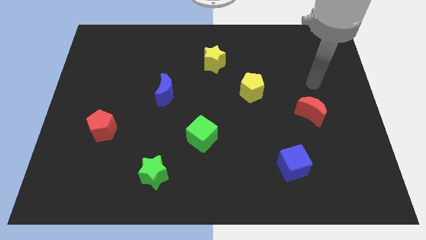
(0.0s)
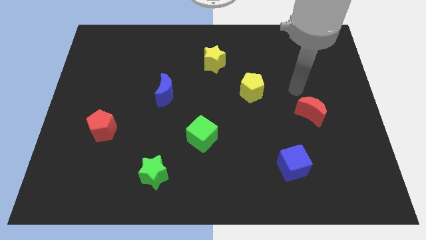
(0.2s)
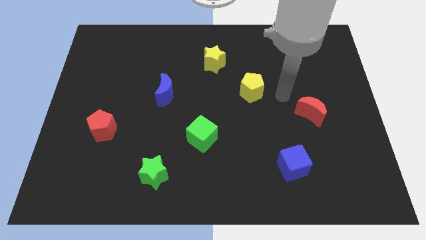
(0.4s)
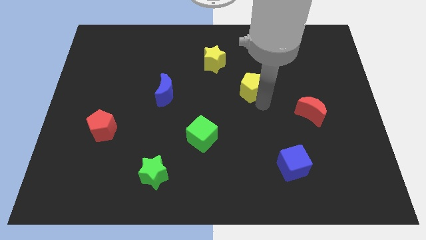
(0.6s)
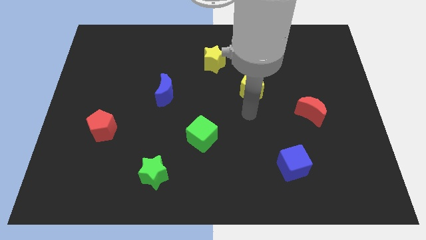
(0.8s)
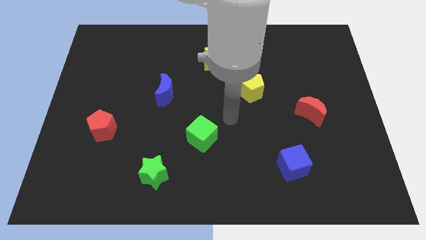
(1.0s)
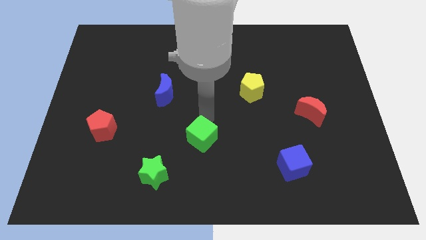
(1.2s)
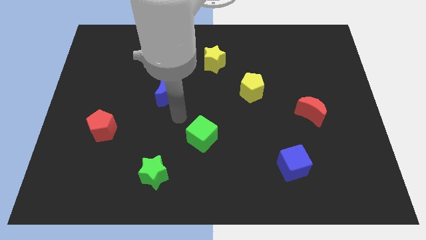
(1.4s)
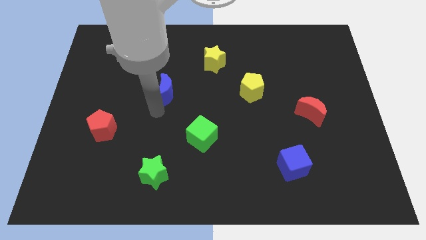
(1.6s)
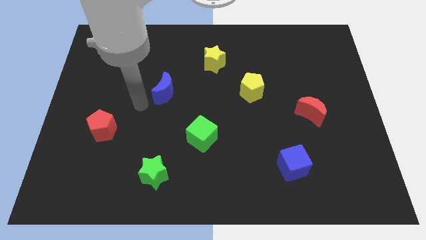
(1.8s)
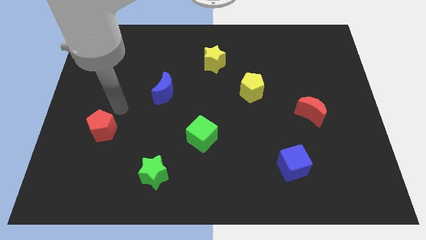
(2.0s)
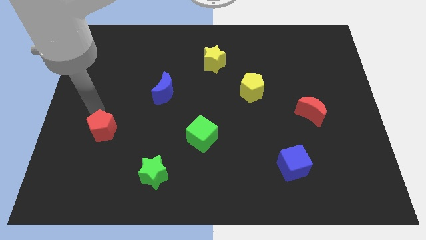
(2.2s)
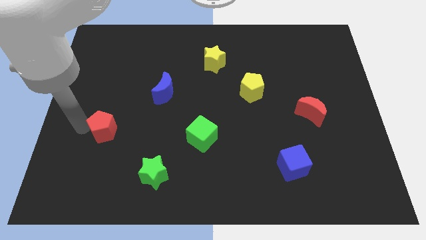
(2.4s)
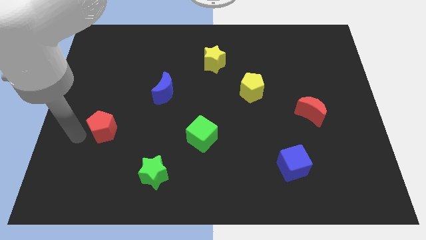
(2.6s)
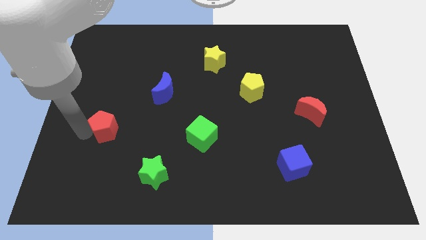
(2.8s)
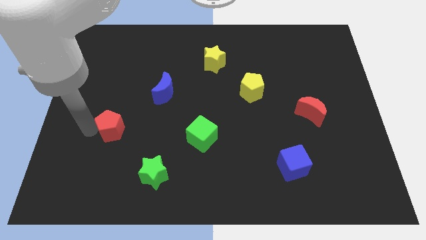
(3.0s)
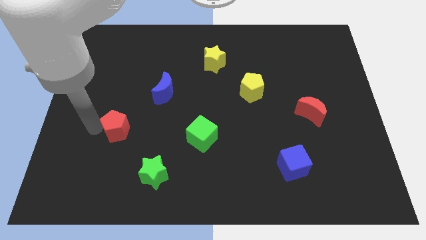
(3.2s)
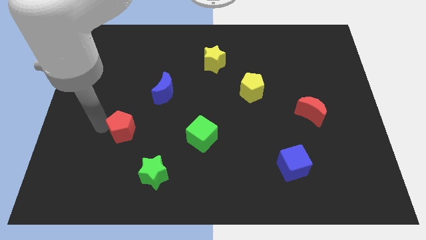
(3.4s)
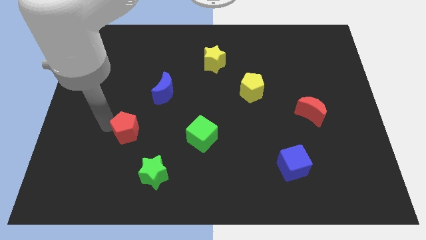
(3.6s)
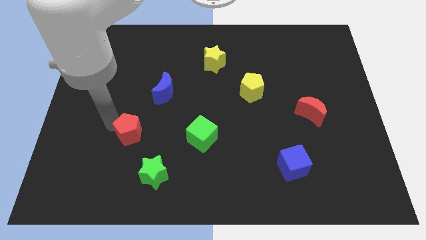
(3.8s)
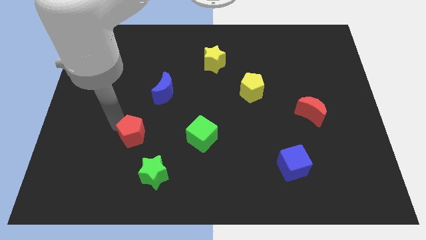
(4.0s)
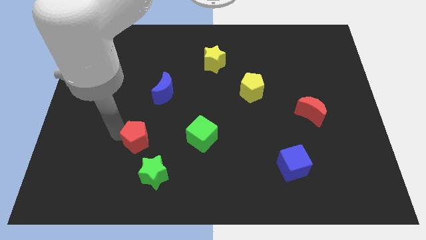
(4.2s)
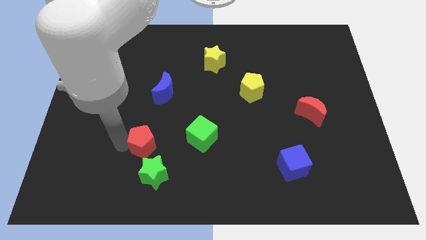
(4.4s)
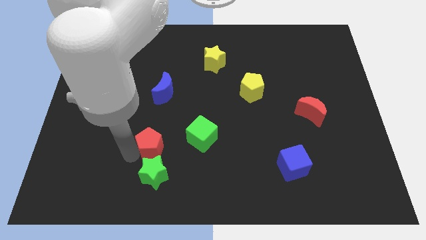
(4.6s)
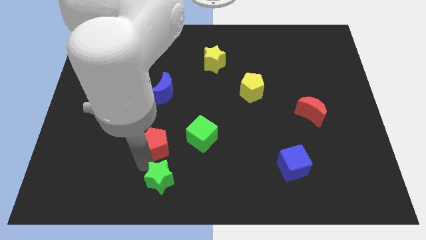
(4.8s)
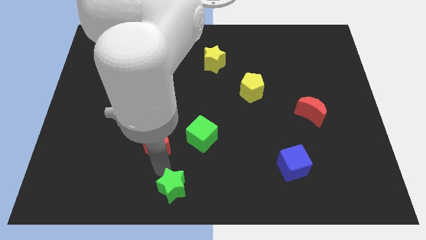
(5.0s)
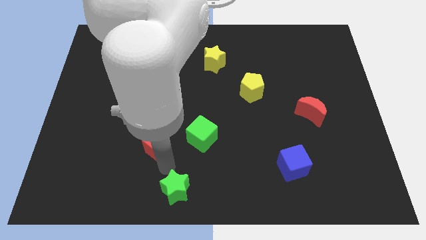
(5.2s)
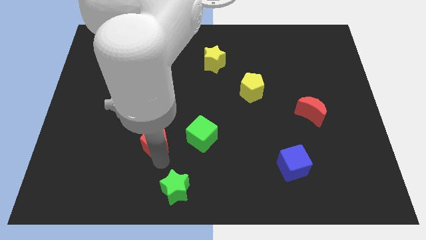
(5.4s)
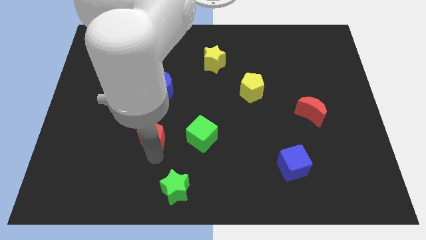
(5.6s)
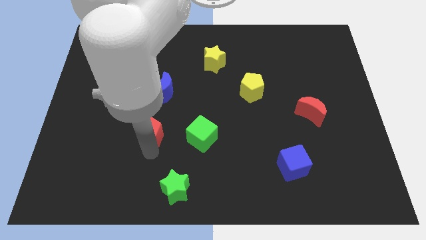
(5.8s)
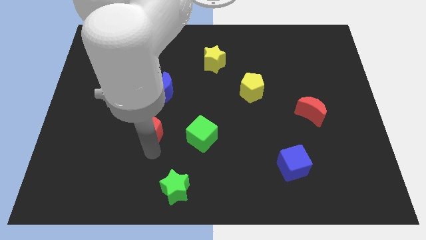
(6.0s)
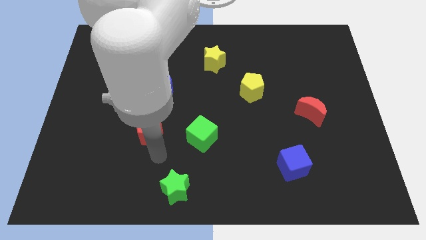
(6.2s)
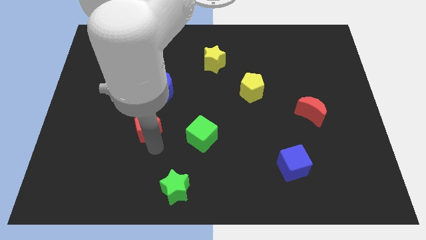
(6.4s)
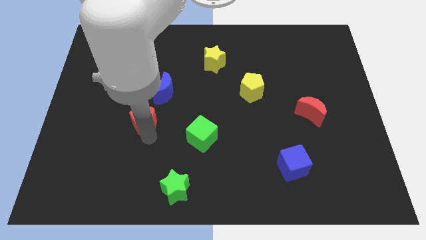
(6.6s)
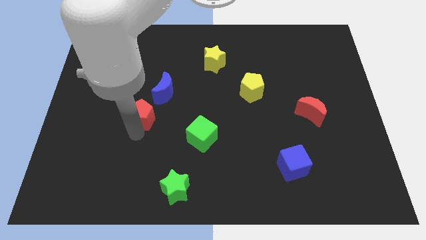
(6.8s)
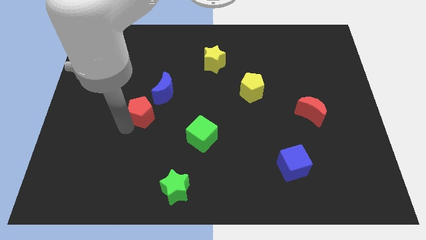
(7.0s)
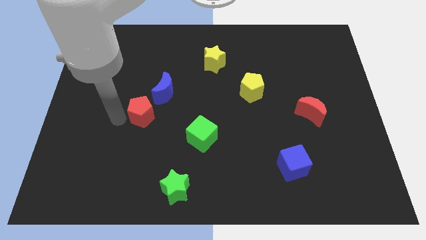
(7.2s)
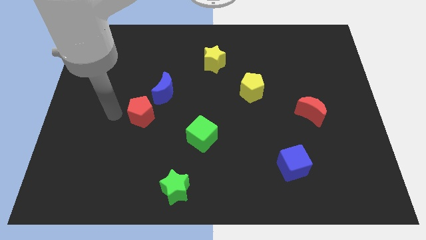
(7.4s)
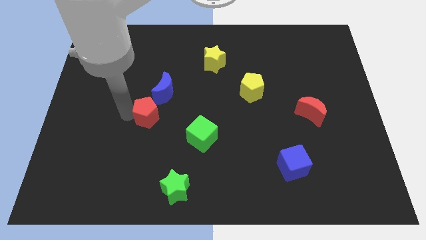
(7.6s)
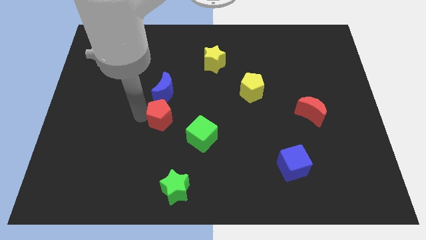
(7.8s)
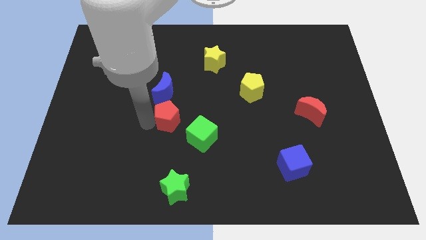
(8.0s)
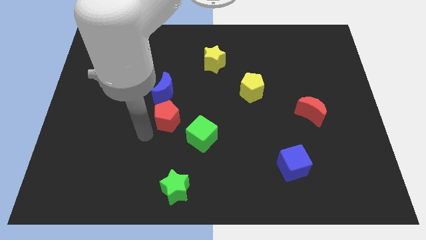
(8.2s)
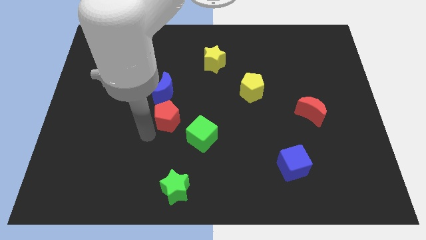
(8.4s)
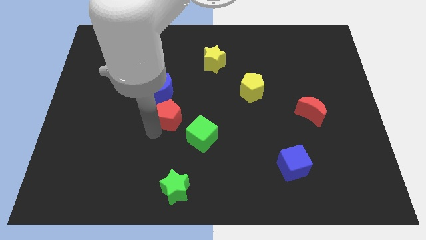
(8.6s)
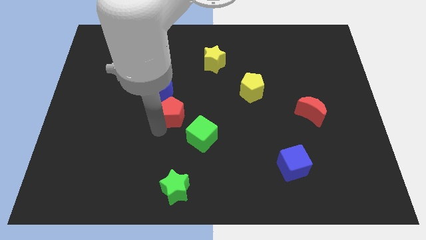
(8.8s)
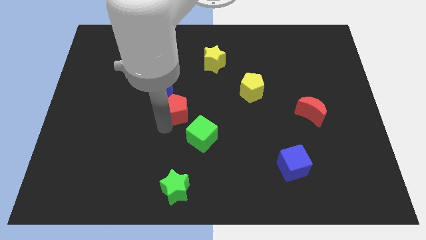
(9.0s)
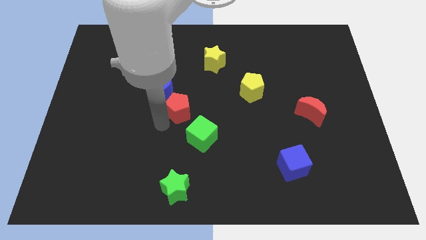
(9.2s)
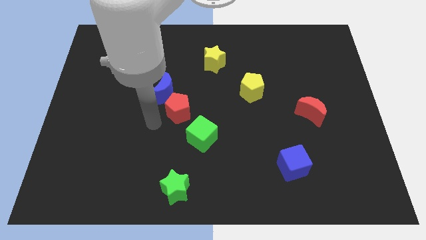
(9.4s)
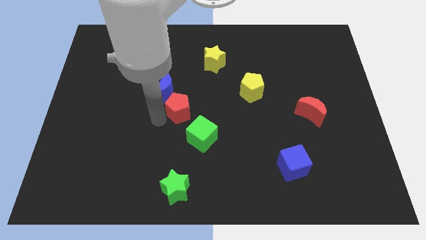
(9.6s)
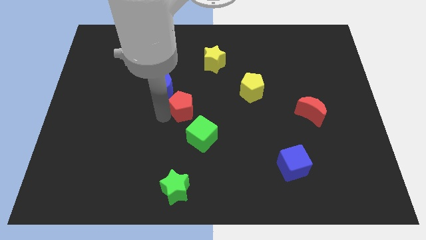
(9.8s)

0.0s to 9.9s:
push the red pentagon to the top side of the green cube

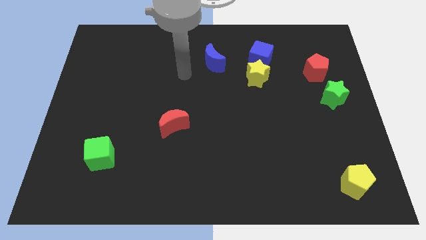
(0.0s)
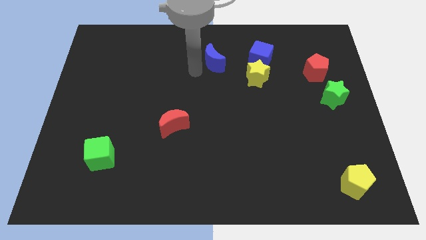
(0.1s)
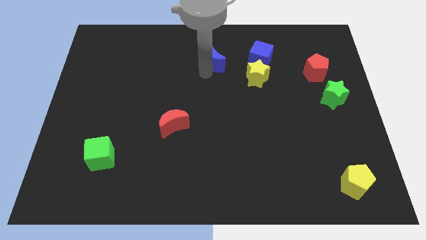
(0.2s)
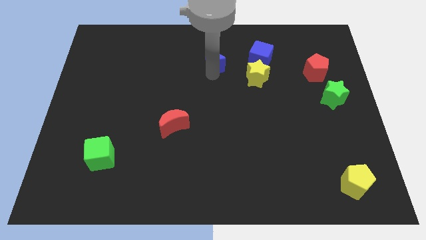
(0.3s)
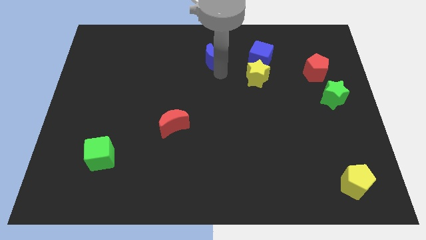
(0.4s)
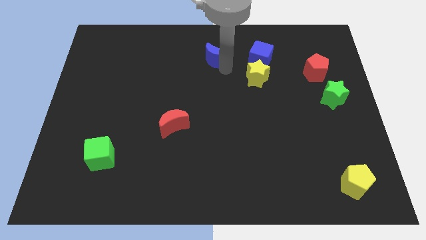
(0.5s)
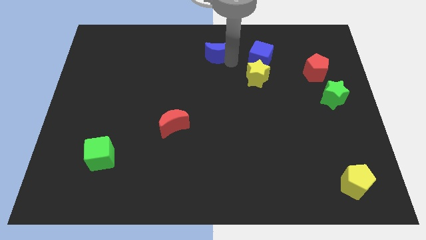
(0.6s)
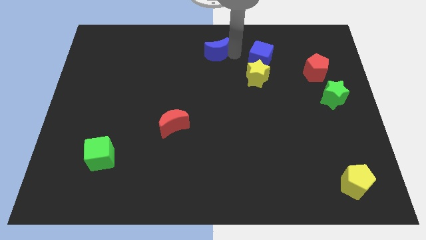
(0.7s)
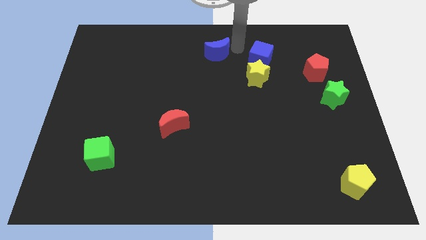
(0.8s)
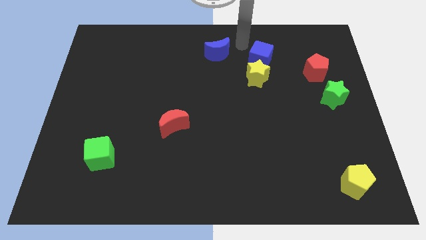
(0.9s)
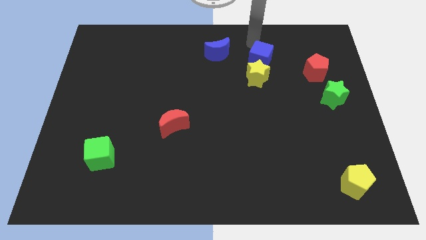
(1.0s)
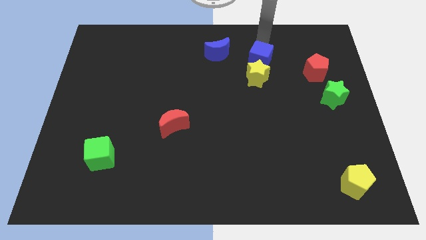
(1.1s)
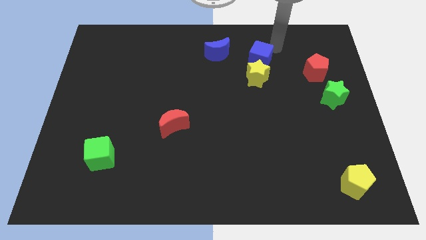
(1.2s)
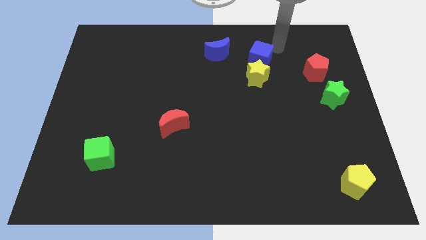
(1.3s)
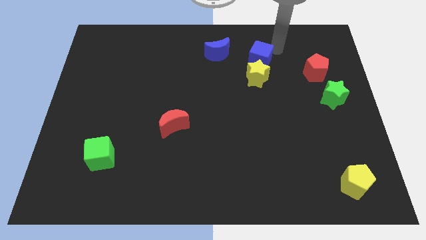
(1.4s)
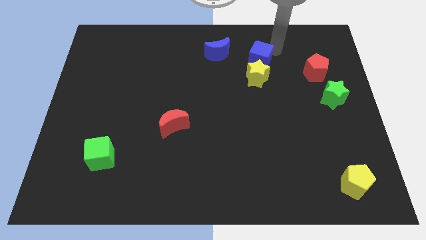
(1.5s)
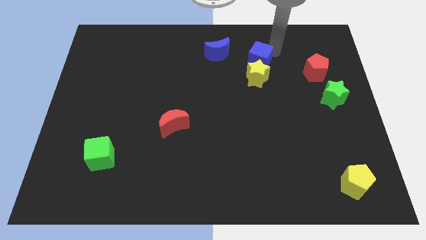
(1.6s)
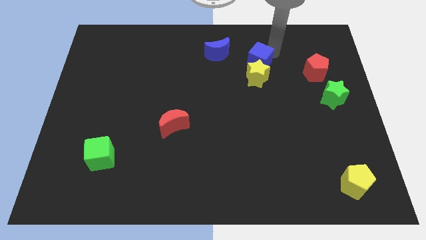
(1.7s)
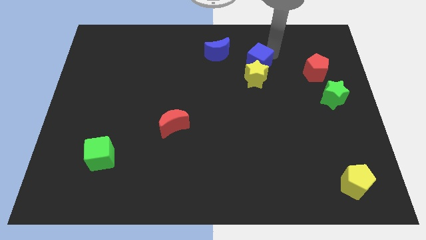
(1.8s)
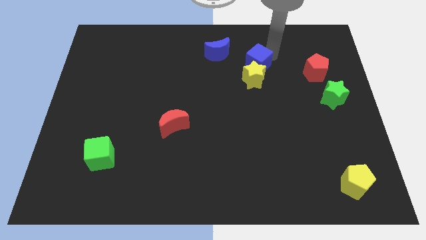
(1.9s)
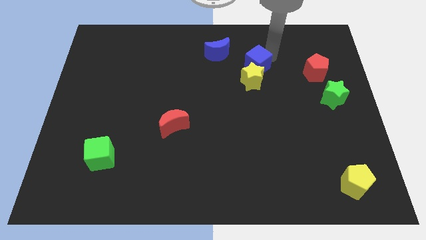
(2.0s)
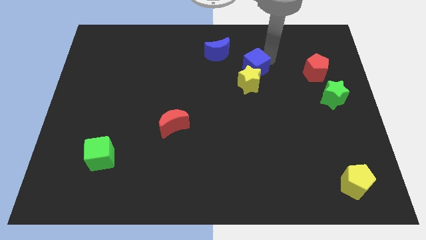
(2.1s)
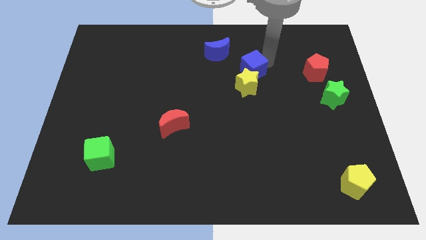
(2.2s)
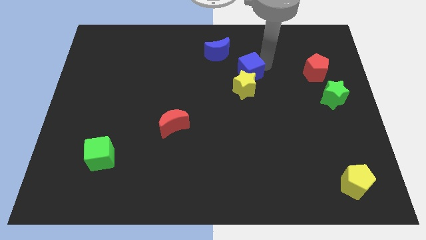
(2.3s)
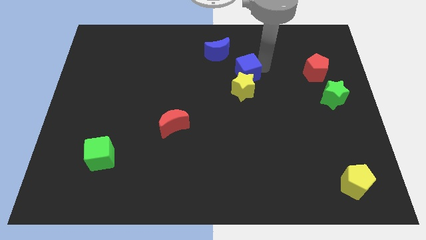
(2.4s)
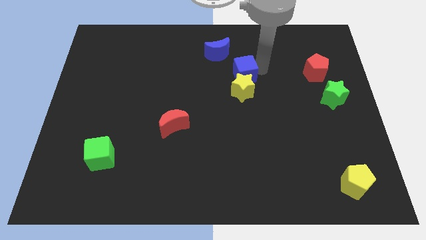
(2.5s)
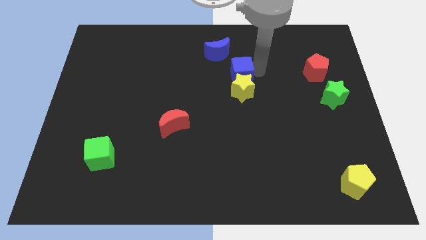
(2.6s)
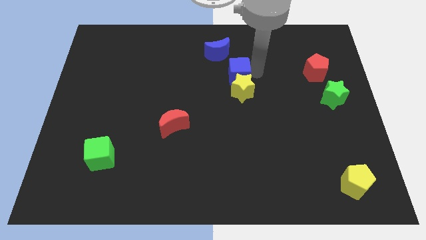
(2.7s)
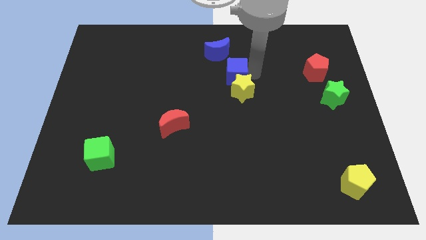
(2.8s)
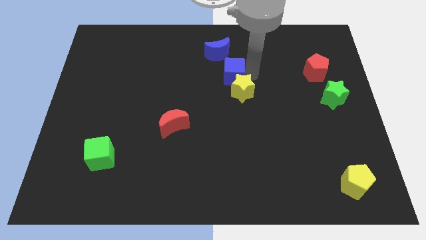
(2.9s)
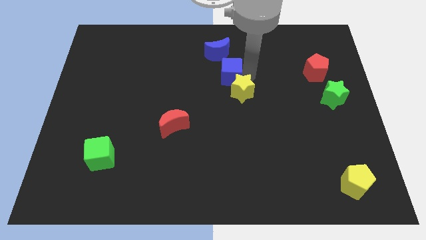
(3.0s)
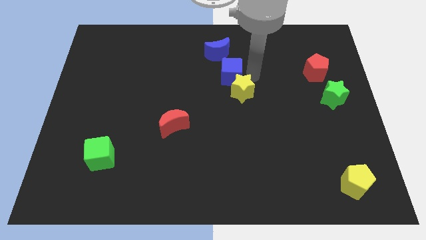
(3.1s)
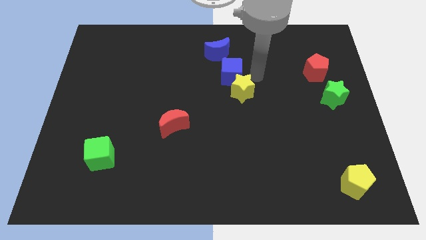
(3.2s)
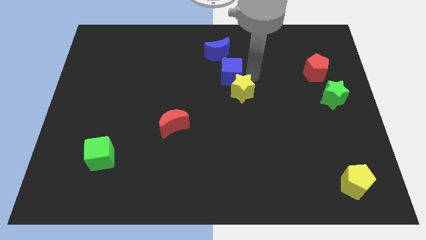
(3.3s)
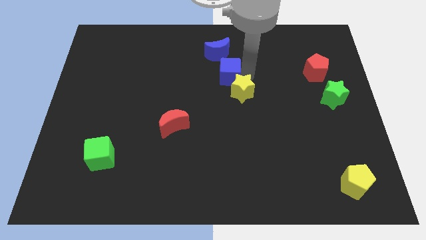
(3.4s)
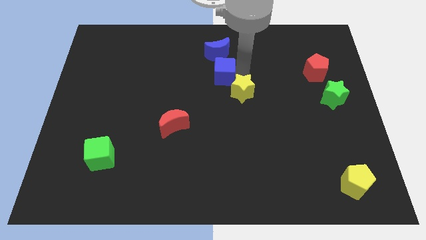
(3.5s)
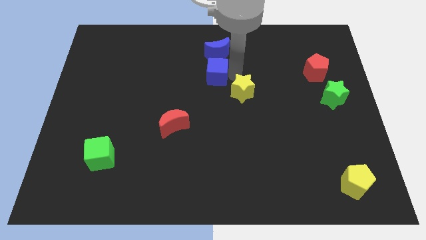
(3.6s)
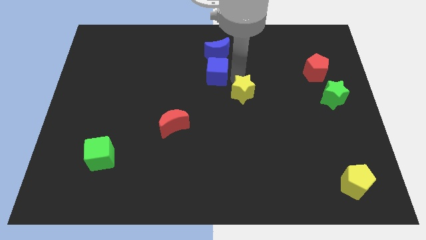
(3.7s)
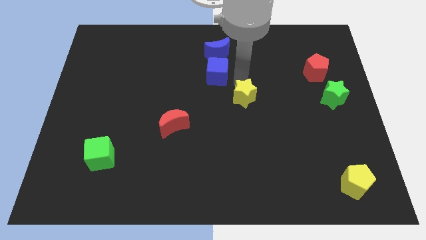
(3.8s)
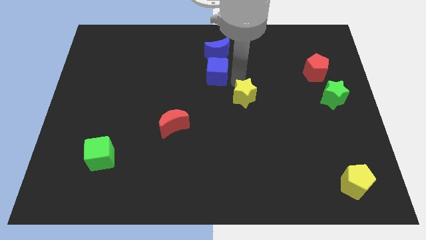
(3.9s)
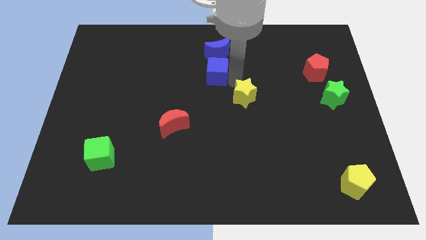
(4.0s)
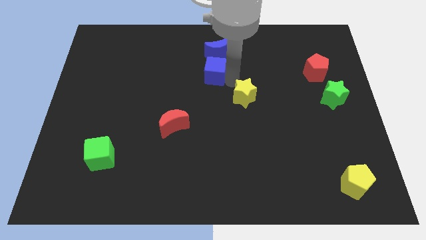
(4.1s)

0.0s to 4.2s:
push the blue cube diagonally down and to the left of the blue moon
